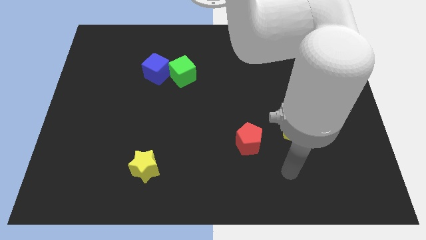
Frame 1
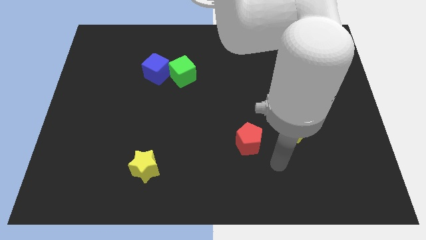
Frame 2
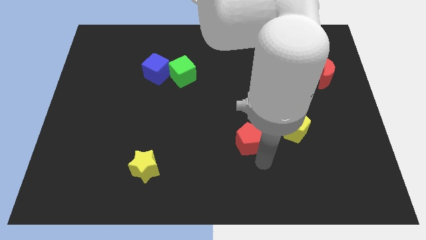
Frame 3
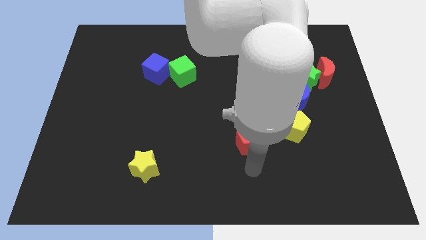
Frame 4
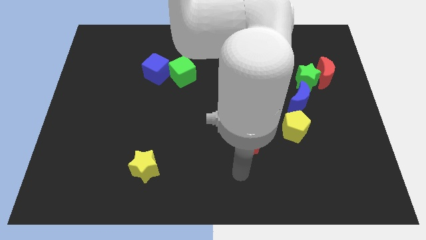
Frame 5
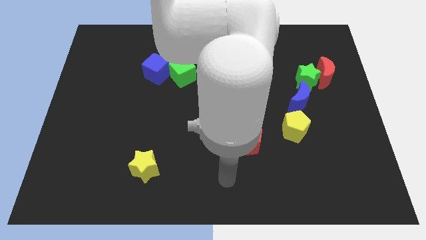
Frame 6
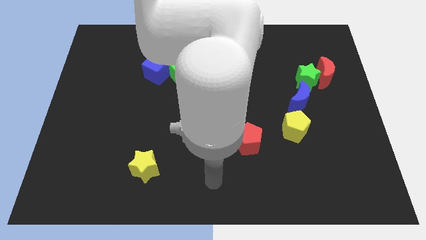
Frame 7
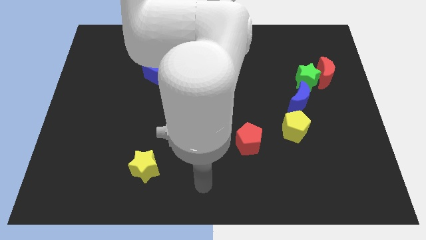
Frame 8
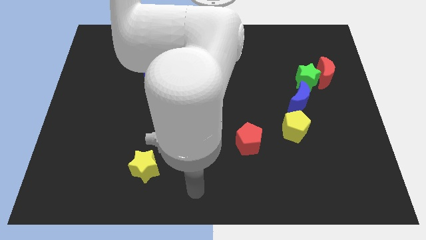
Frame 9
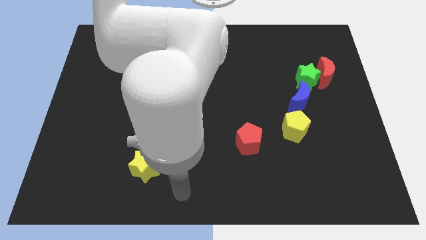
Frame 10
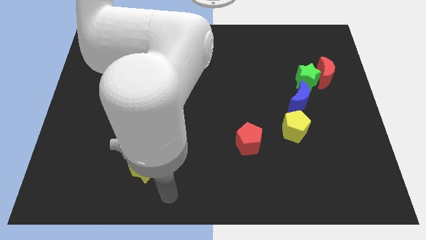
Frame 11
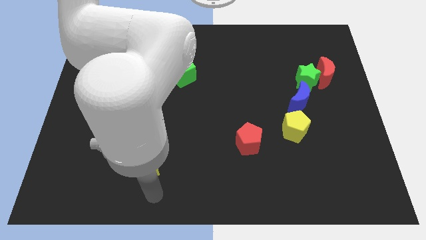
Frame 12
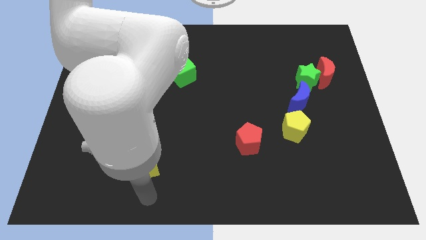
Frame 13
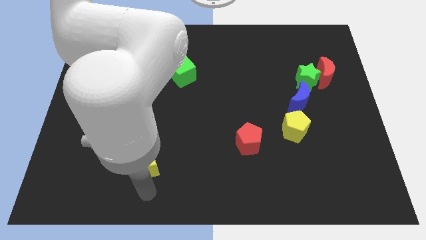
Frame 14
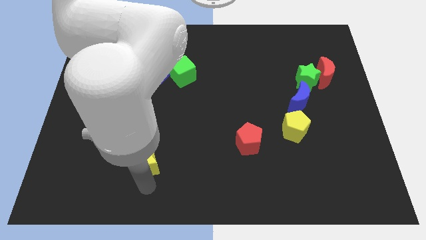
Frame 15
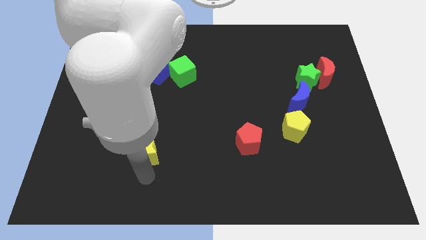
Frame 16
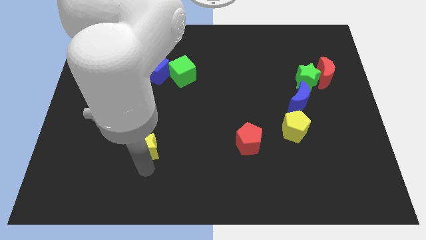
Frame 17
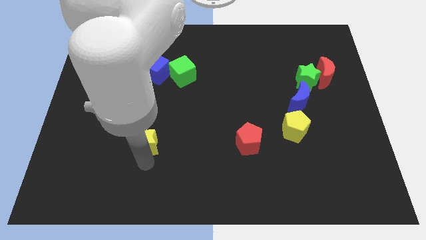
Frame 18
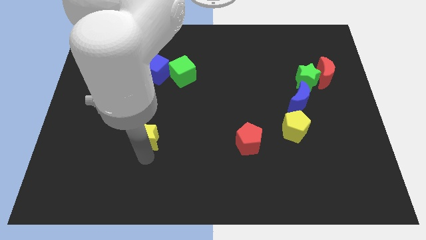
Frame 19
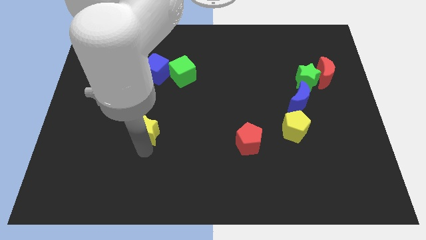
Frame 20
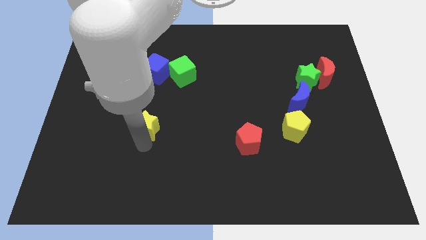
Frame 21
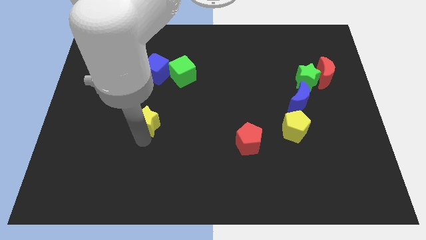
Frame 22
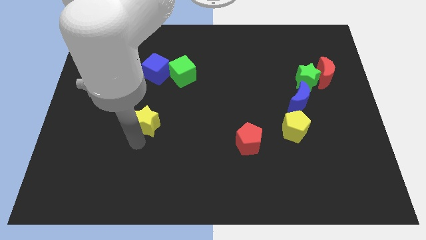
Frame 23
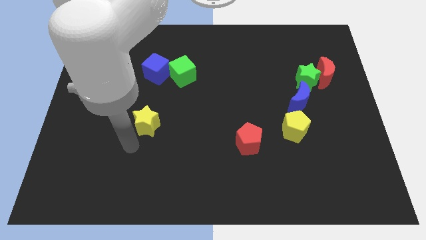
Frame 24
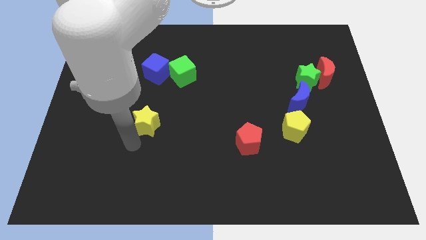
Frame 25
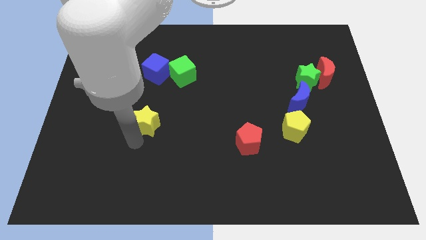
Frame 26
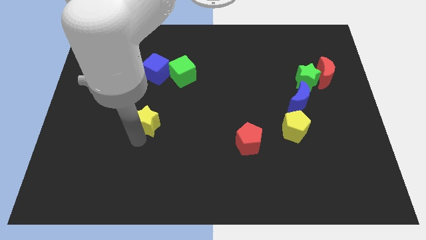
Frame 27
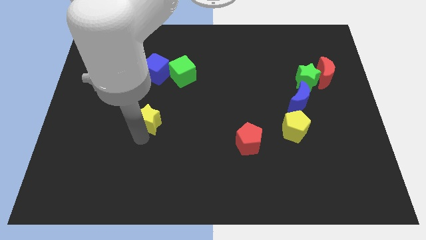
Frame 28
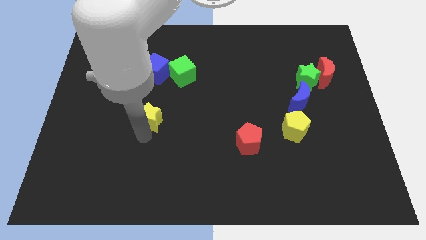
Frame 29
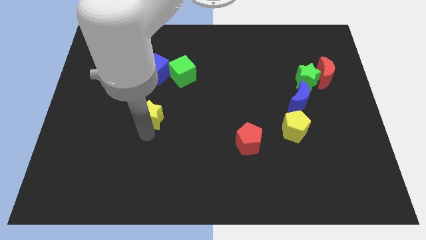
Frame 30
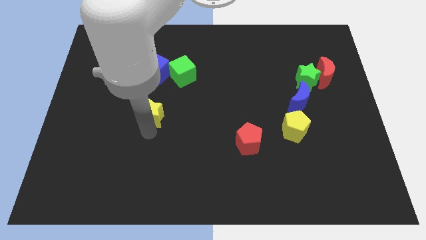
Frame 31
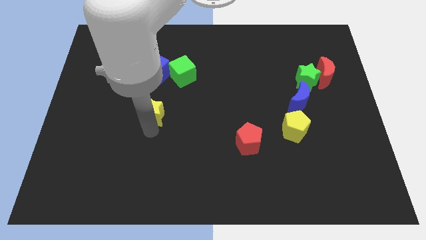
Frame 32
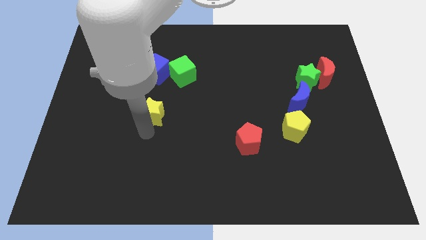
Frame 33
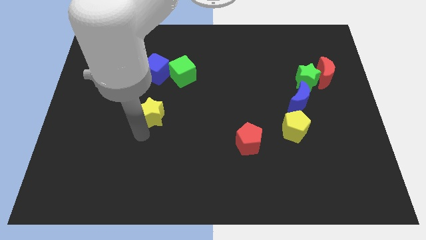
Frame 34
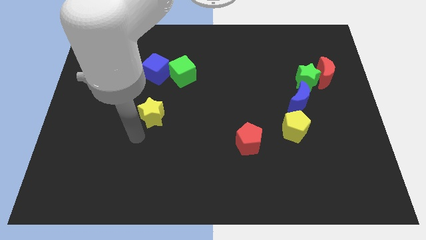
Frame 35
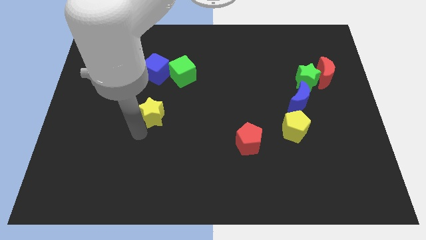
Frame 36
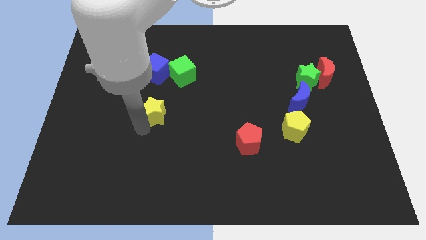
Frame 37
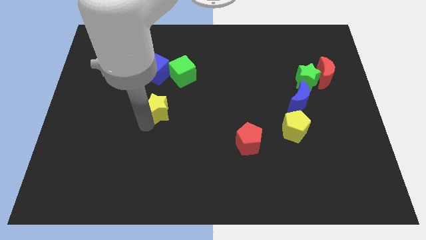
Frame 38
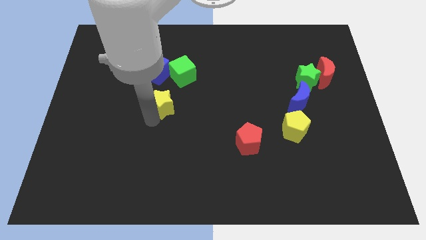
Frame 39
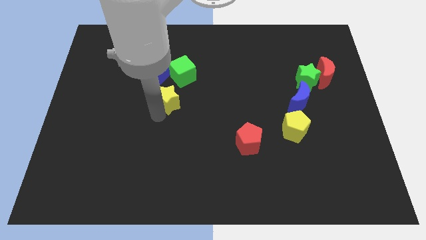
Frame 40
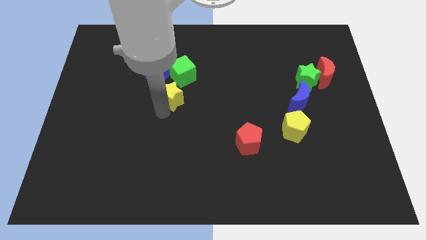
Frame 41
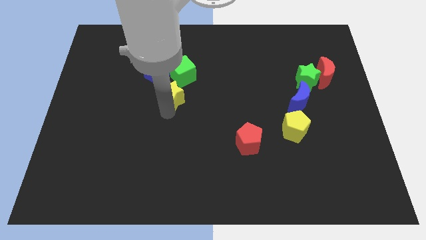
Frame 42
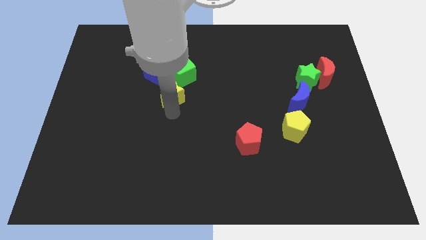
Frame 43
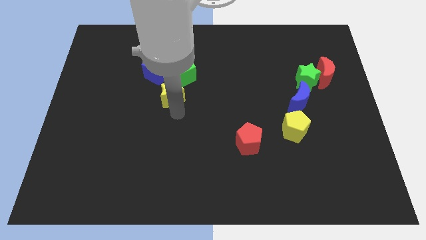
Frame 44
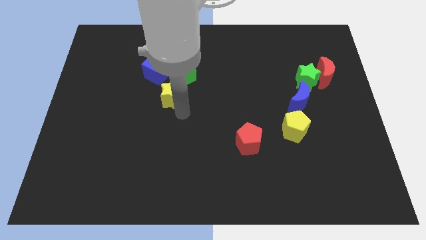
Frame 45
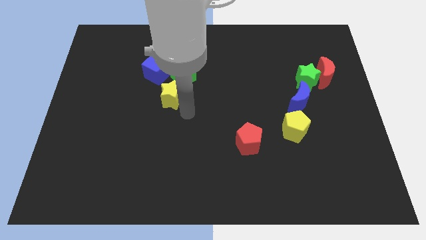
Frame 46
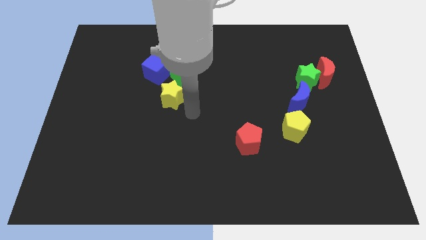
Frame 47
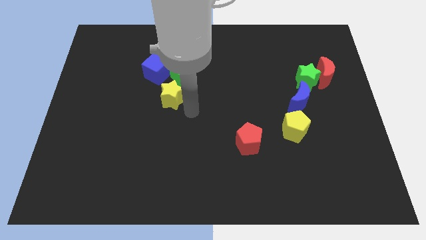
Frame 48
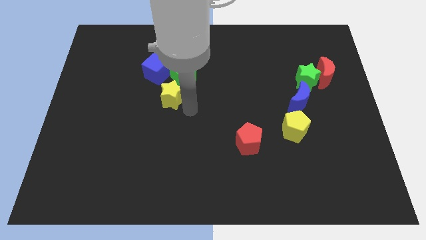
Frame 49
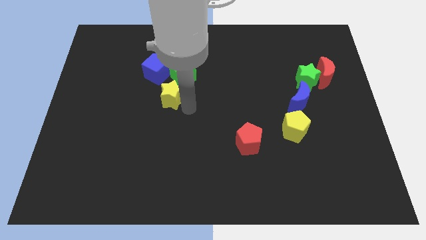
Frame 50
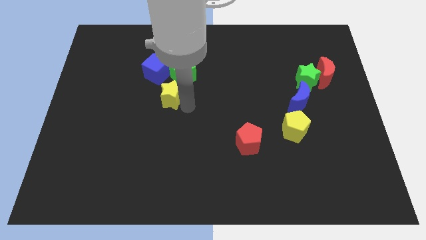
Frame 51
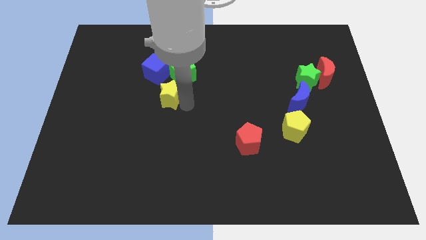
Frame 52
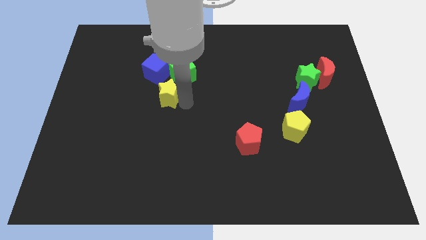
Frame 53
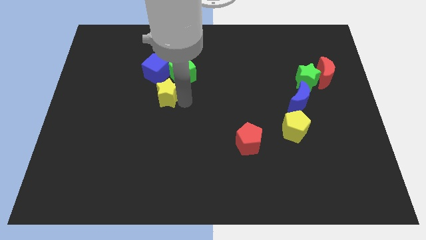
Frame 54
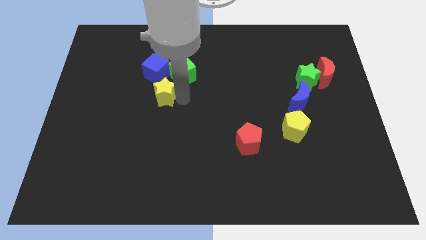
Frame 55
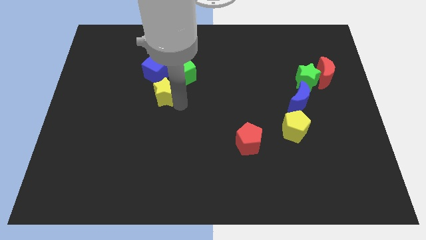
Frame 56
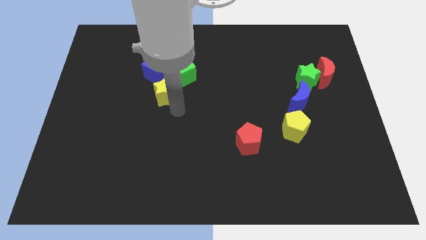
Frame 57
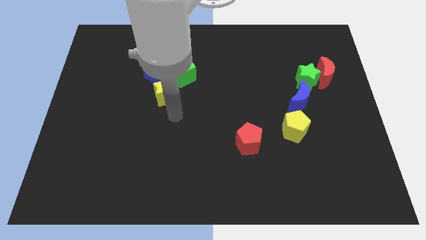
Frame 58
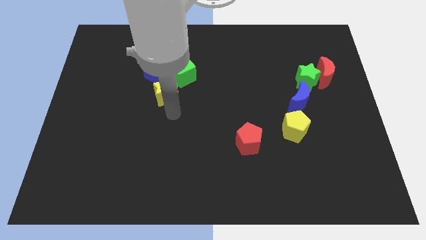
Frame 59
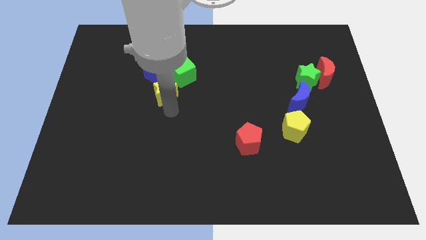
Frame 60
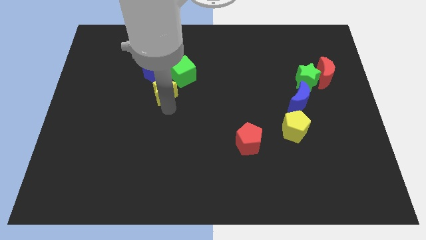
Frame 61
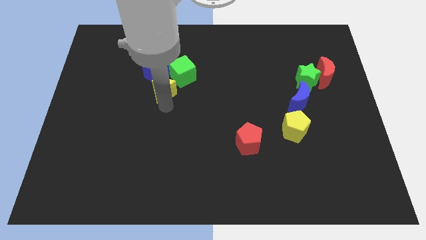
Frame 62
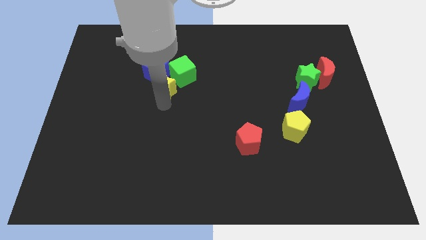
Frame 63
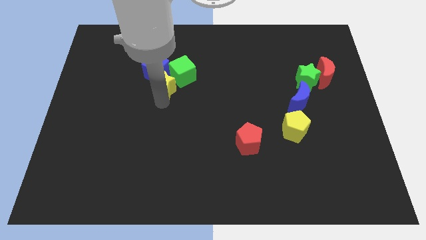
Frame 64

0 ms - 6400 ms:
slide the yellow star towards the blue cube

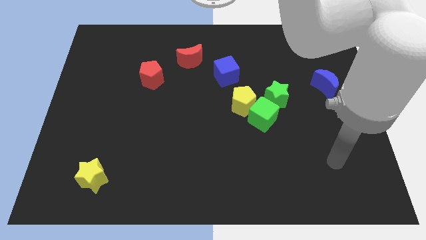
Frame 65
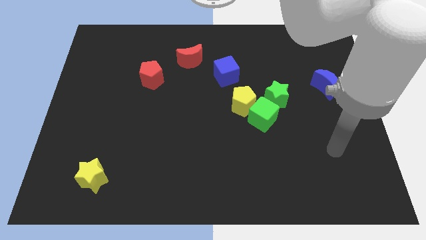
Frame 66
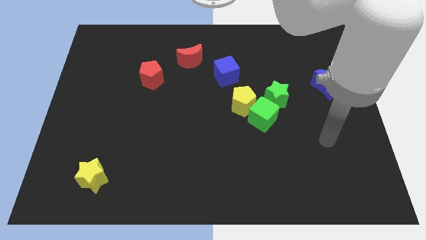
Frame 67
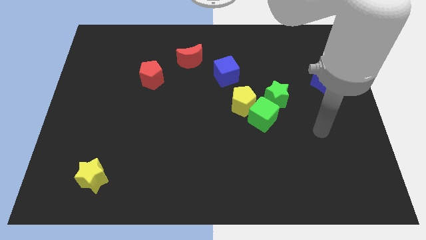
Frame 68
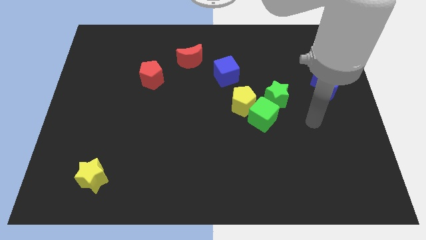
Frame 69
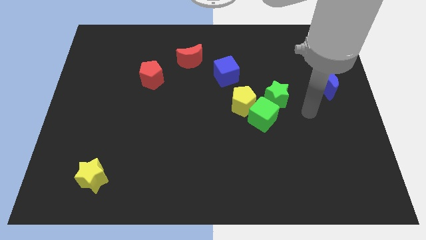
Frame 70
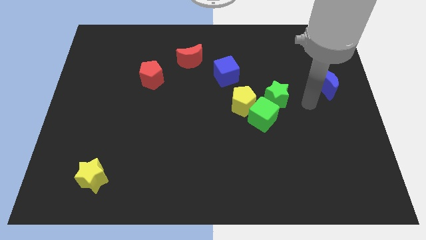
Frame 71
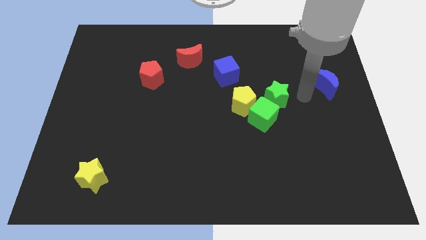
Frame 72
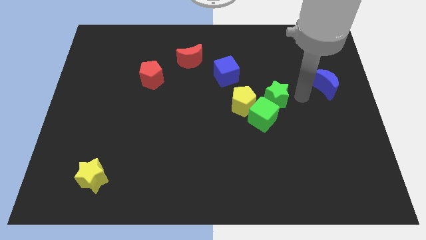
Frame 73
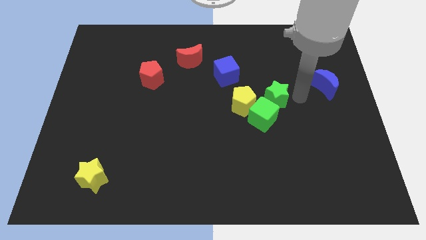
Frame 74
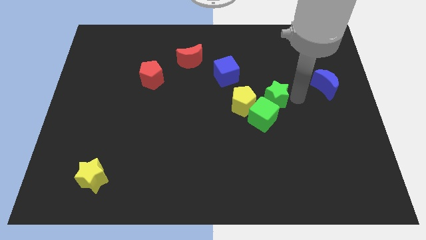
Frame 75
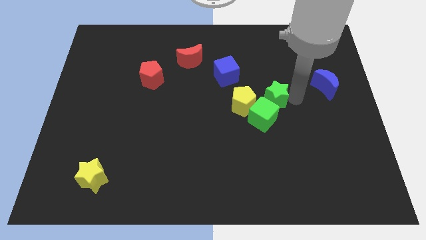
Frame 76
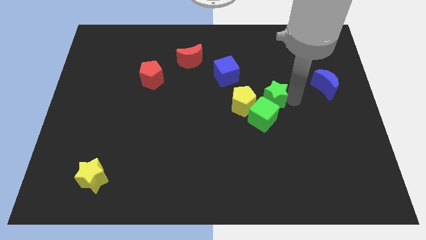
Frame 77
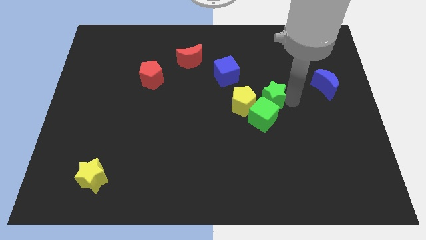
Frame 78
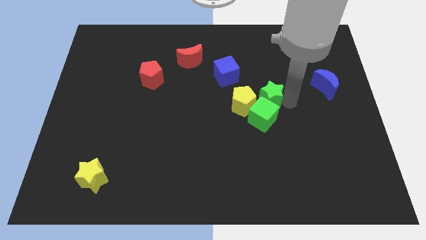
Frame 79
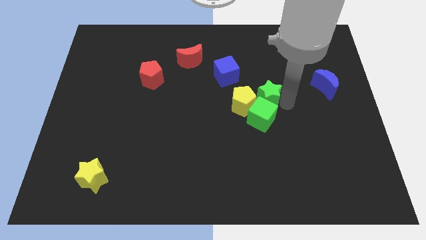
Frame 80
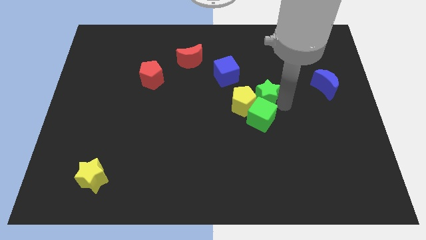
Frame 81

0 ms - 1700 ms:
push the green star to the yellow pentagon
